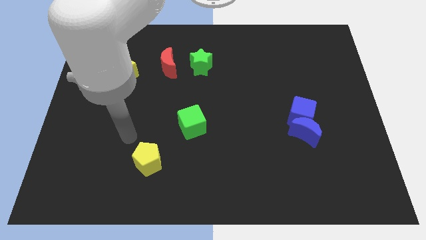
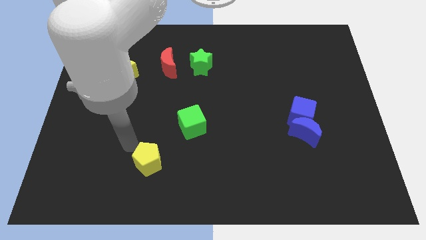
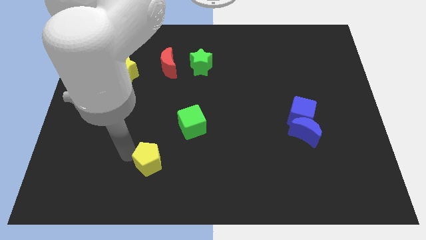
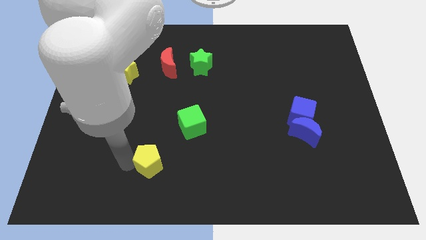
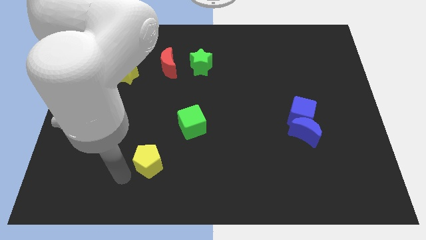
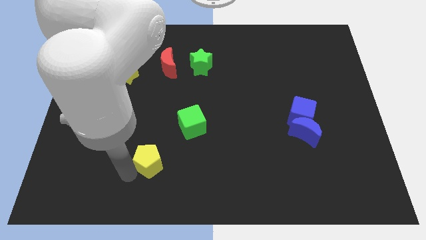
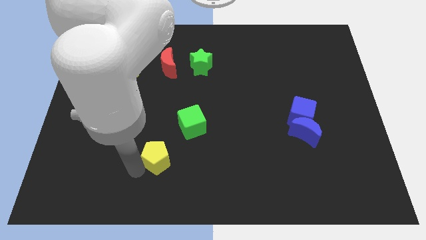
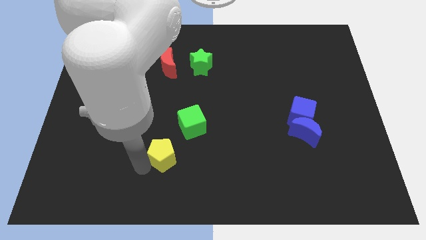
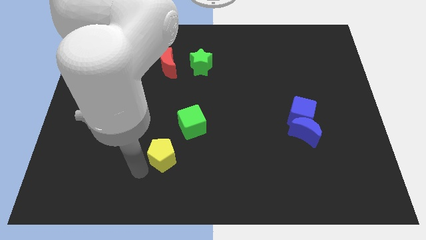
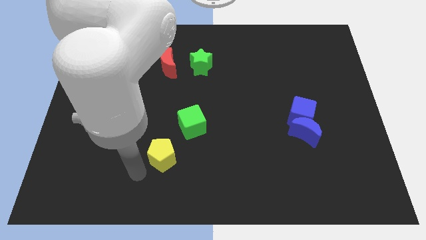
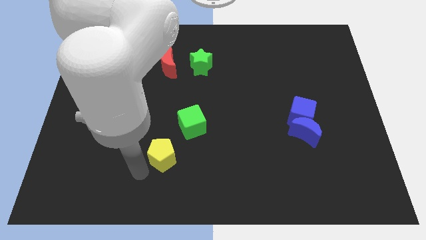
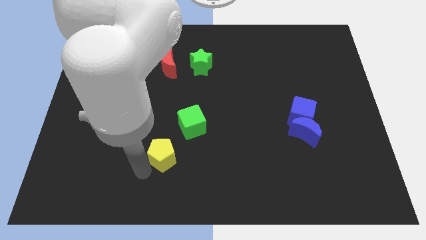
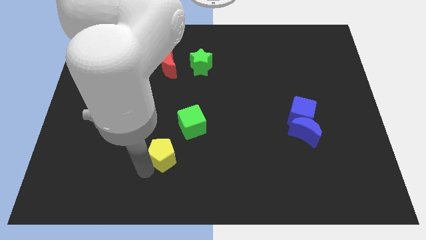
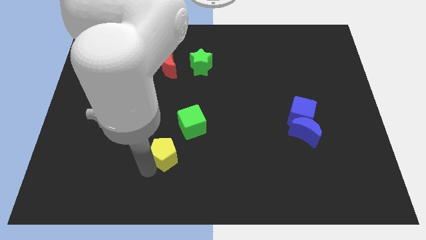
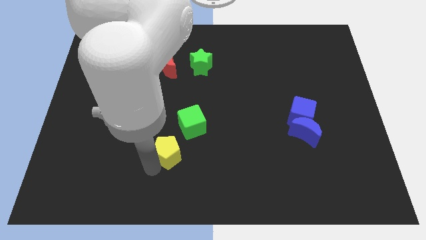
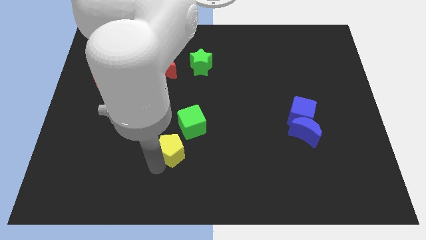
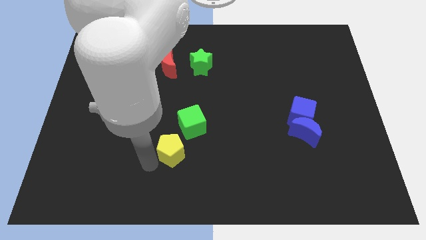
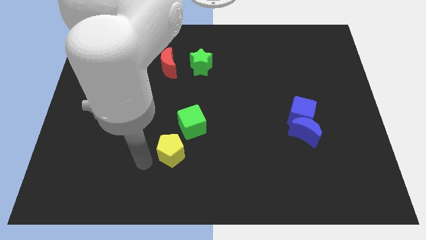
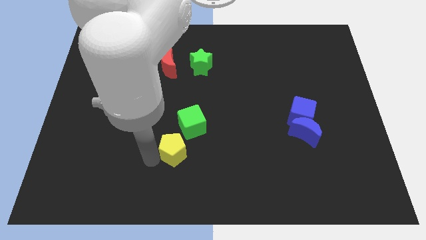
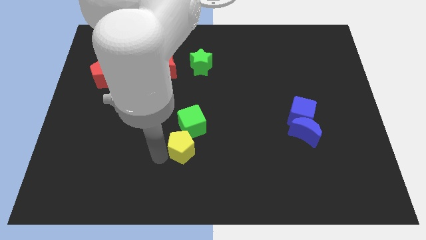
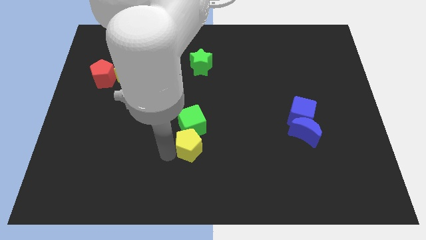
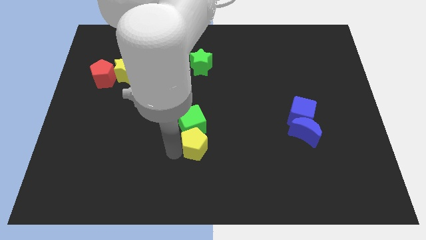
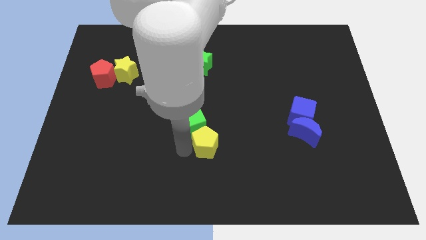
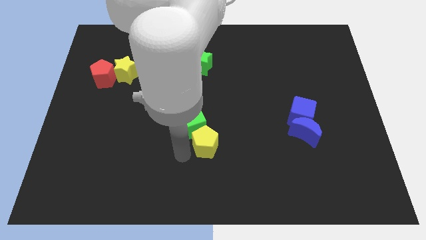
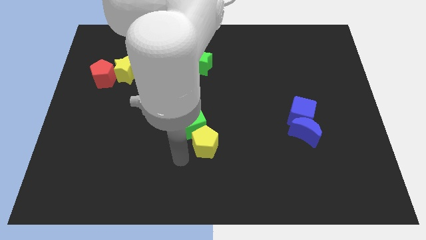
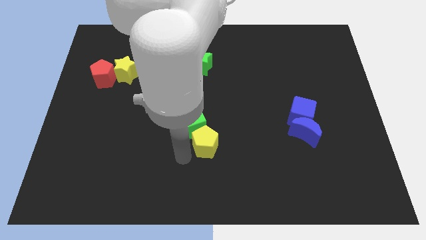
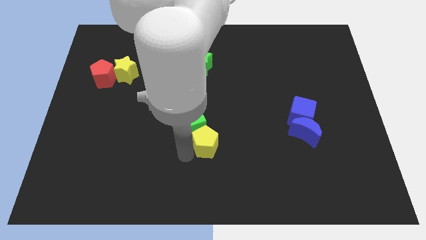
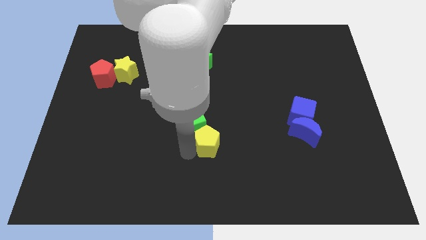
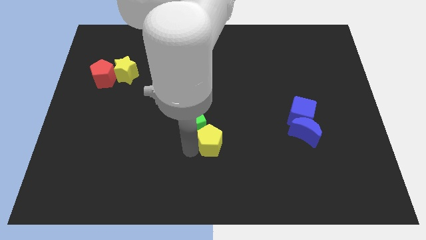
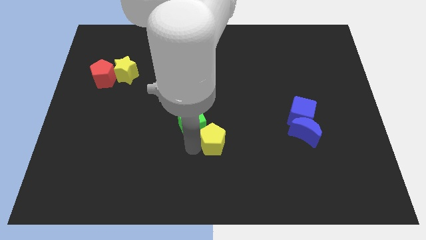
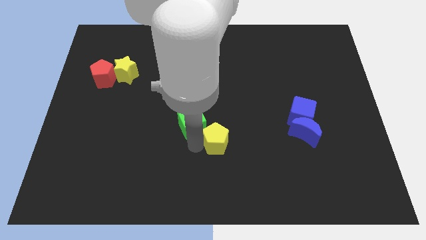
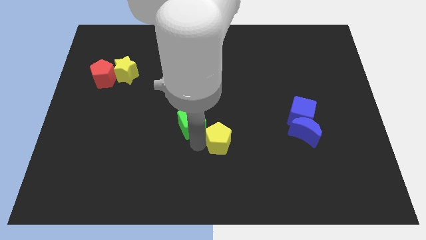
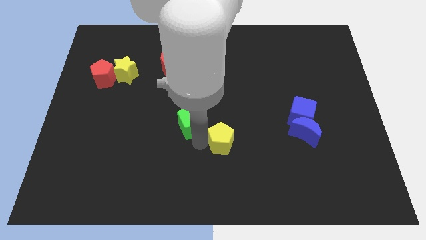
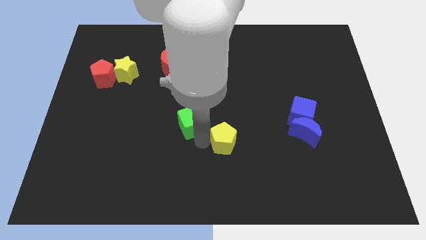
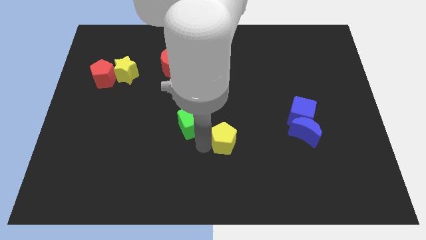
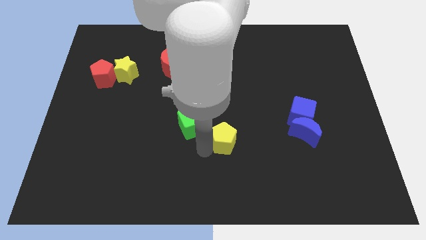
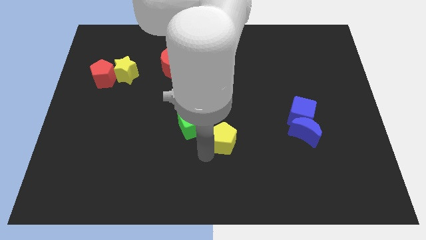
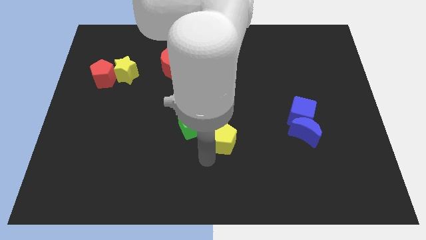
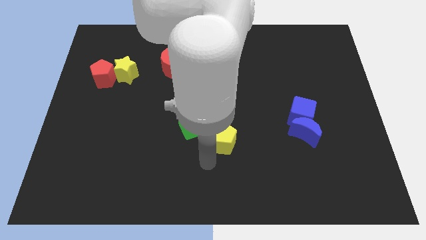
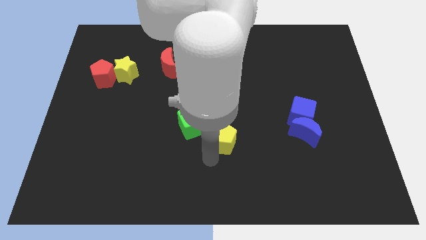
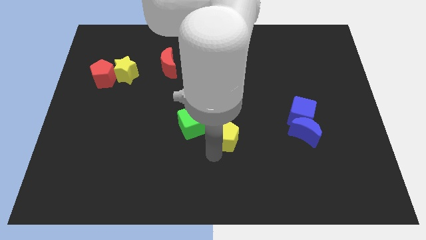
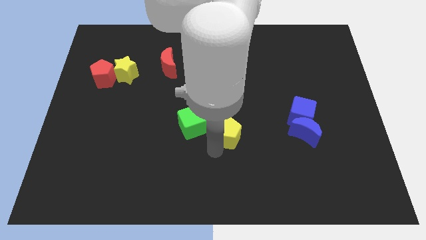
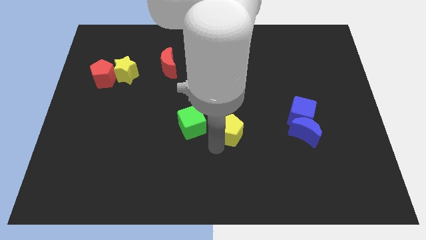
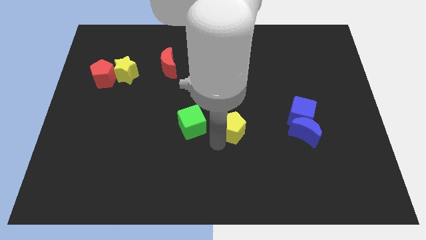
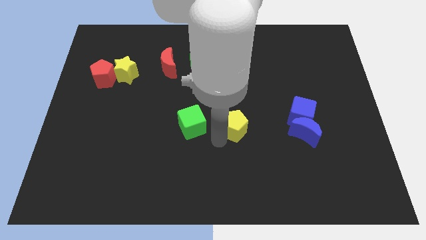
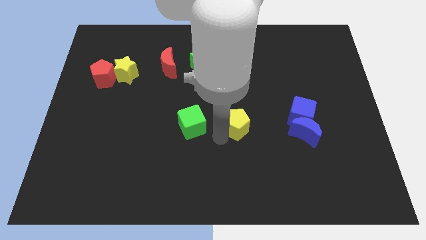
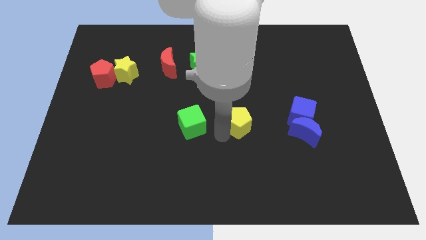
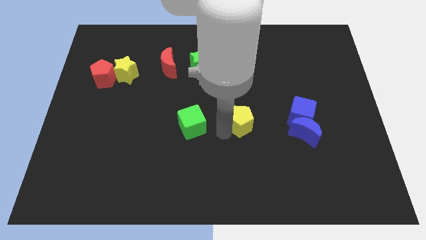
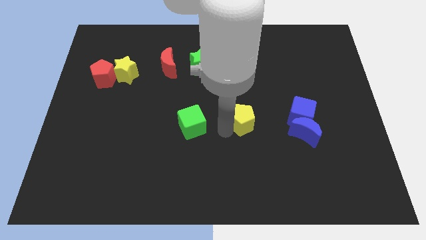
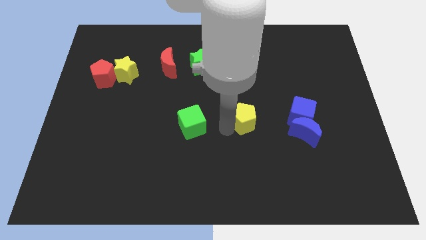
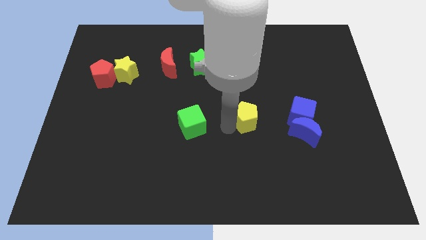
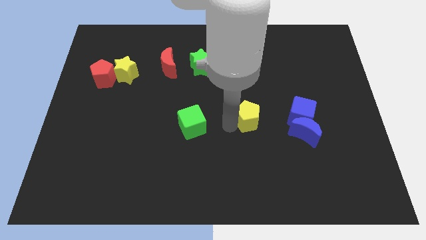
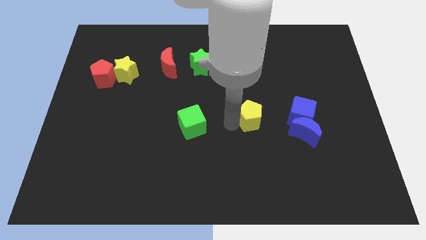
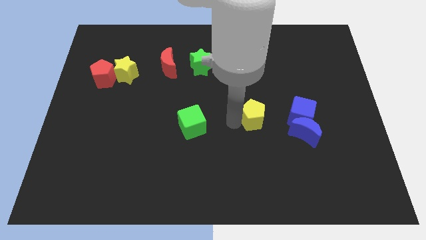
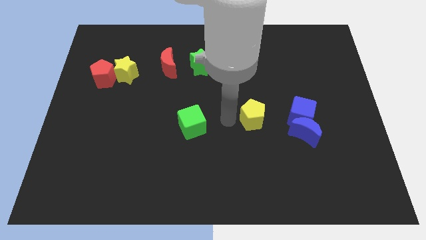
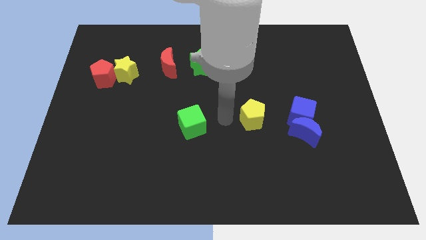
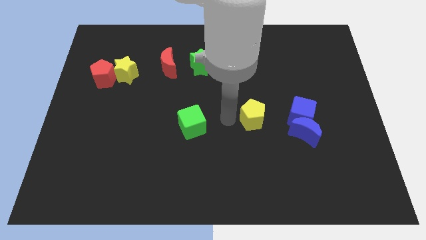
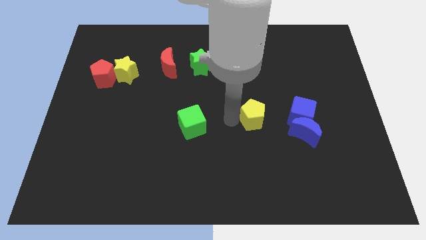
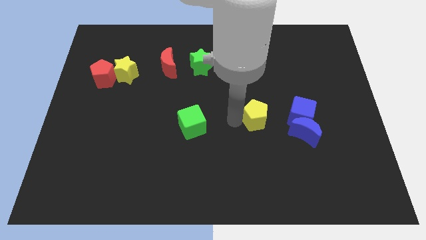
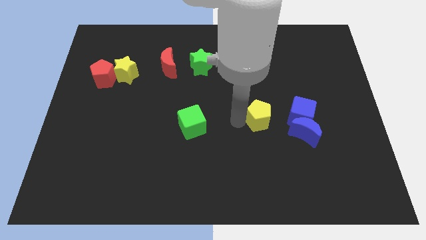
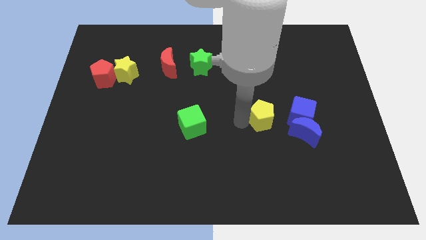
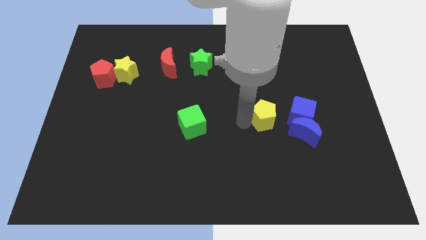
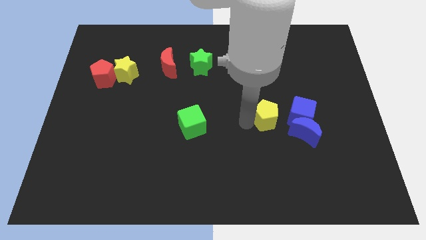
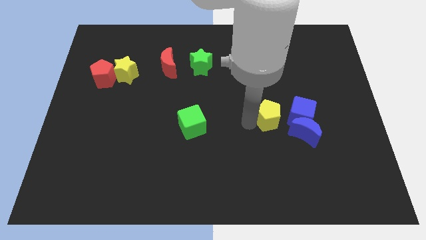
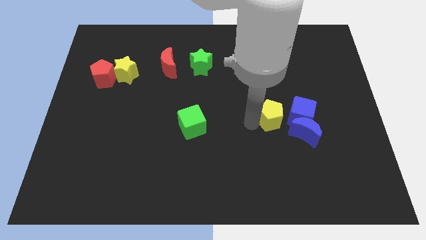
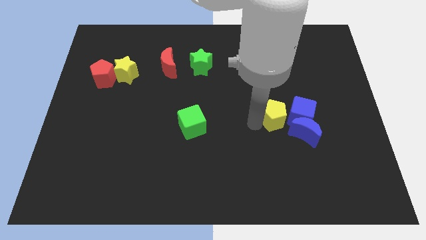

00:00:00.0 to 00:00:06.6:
move the yellow pentagon next to the blue cube
